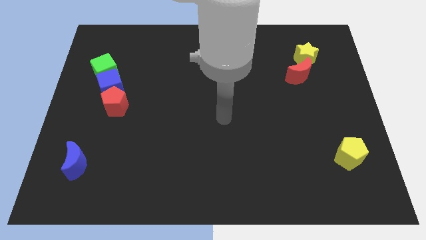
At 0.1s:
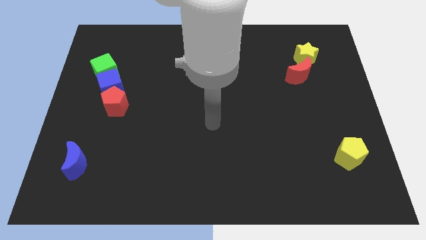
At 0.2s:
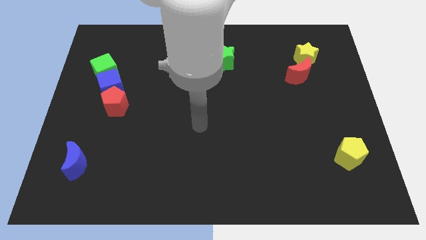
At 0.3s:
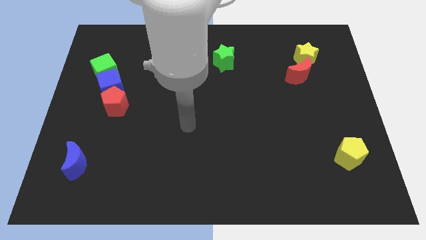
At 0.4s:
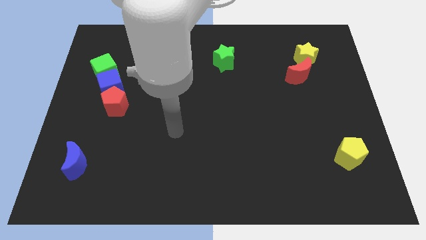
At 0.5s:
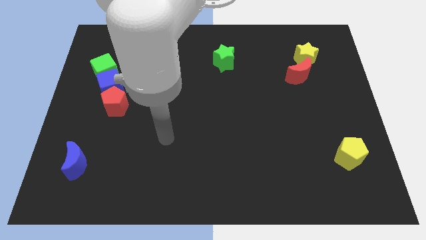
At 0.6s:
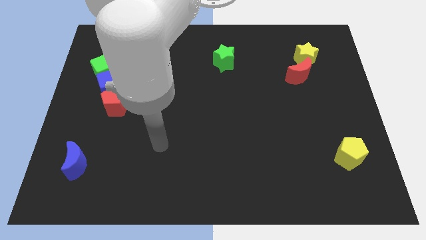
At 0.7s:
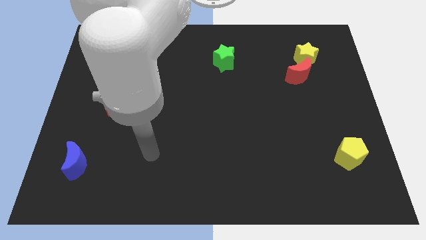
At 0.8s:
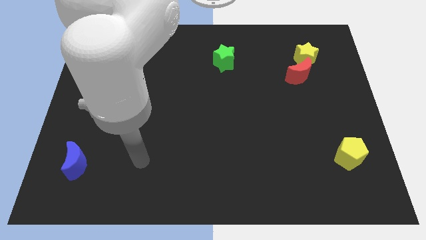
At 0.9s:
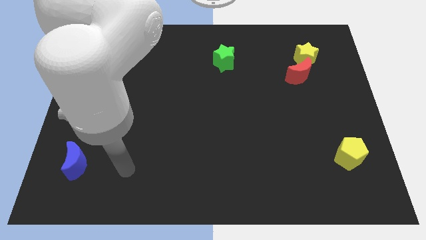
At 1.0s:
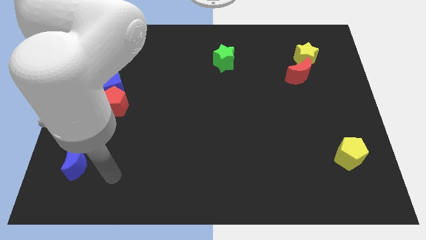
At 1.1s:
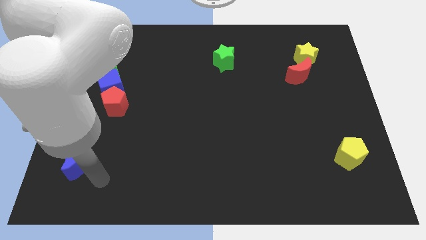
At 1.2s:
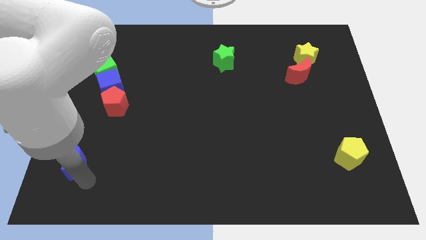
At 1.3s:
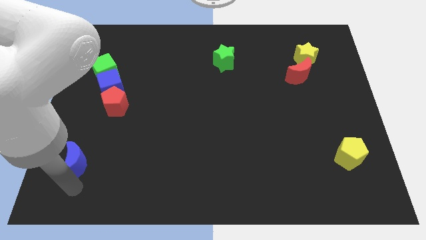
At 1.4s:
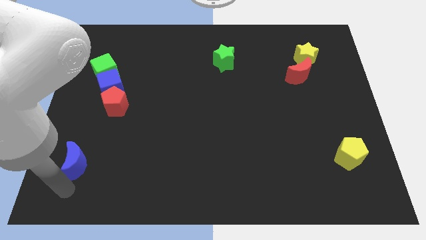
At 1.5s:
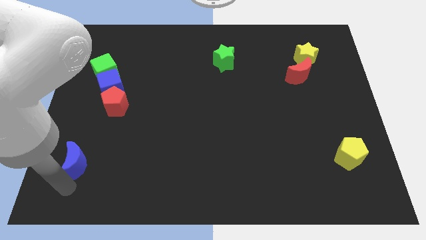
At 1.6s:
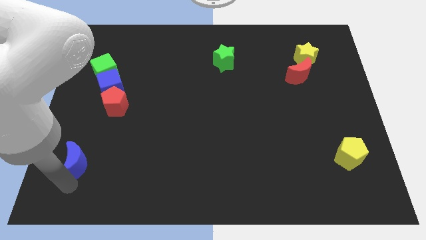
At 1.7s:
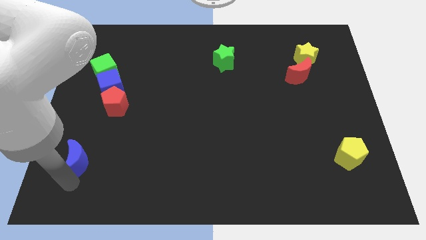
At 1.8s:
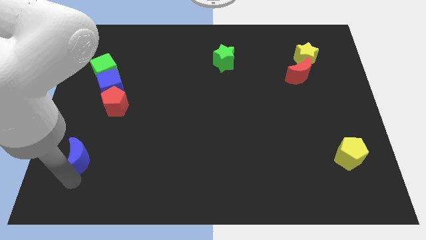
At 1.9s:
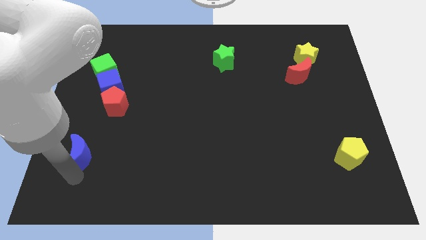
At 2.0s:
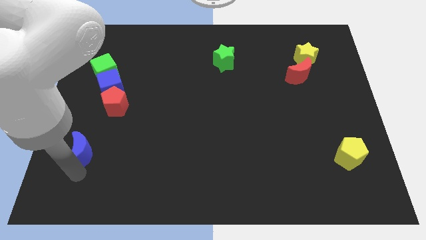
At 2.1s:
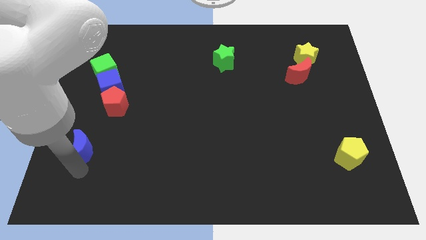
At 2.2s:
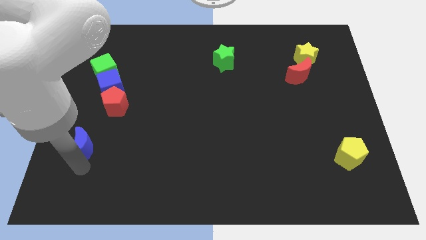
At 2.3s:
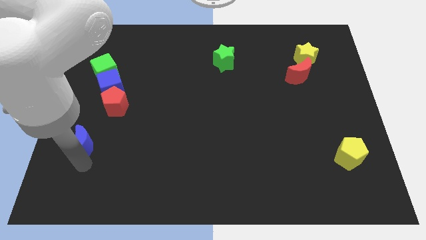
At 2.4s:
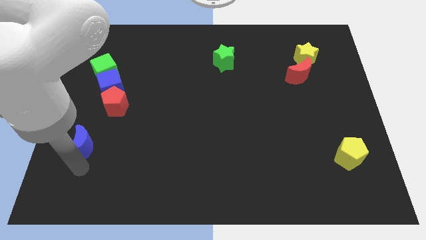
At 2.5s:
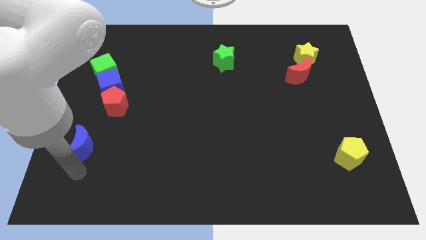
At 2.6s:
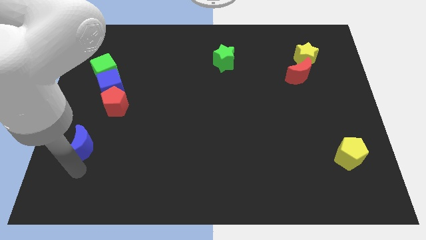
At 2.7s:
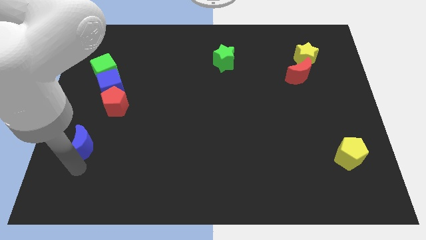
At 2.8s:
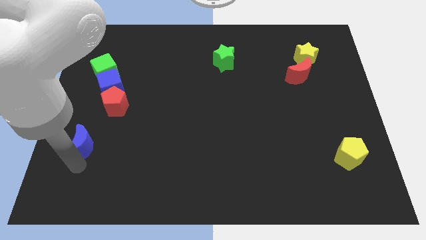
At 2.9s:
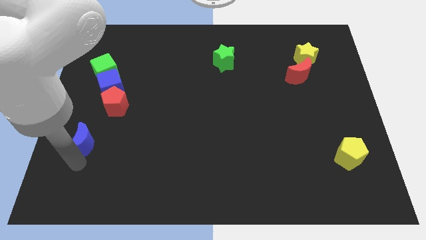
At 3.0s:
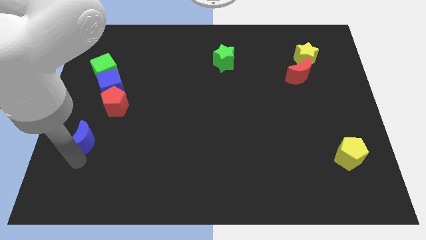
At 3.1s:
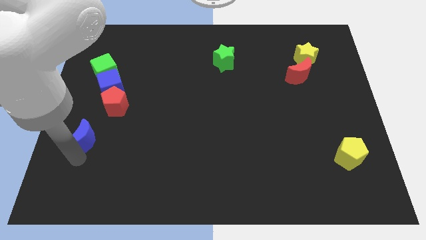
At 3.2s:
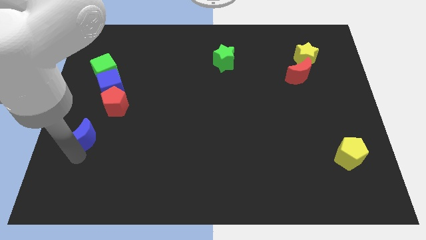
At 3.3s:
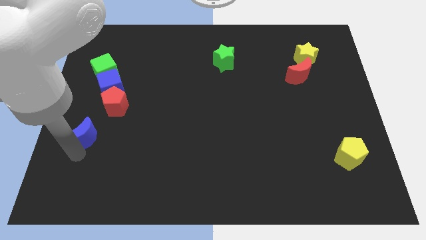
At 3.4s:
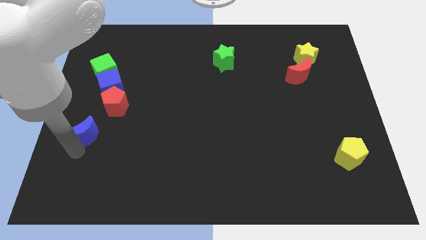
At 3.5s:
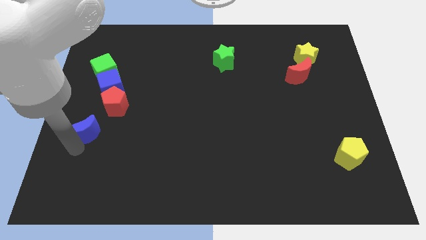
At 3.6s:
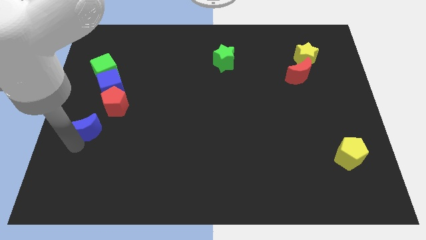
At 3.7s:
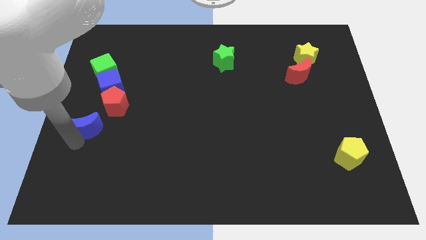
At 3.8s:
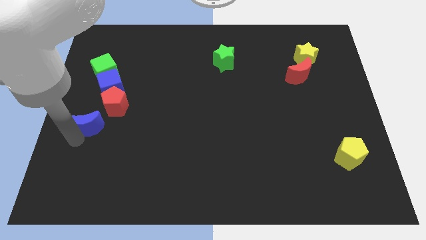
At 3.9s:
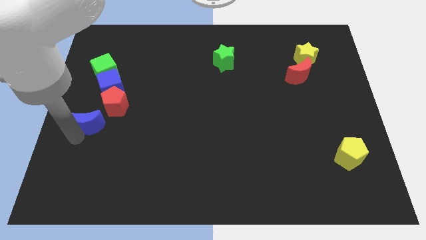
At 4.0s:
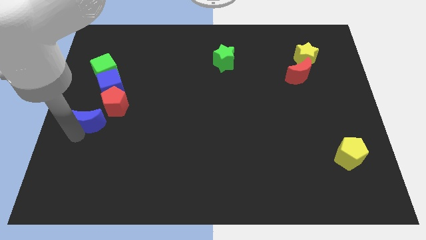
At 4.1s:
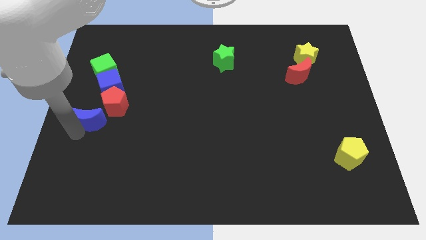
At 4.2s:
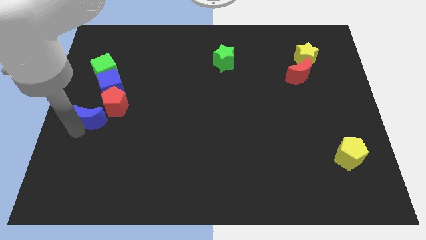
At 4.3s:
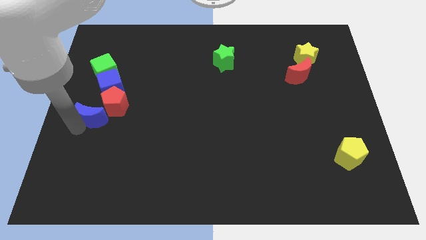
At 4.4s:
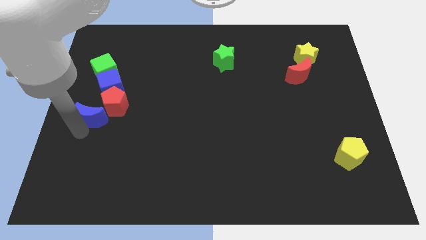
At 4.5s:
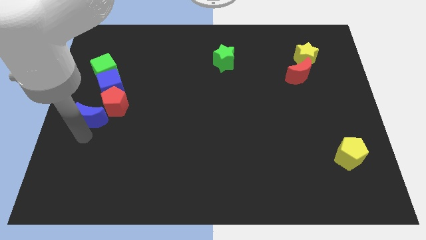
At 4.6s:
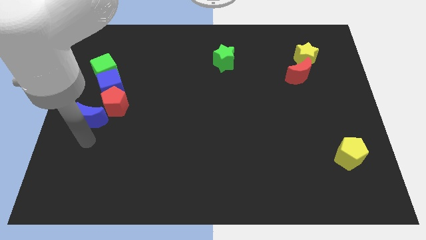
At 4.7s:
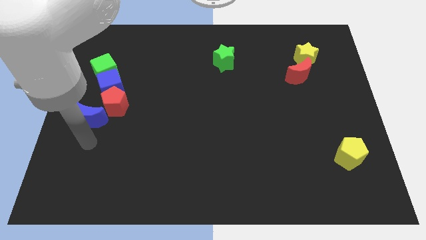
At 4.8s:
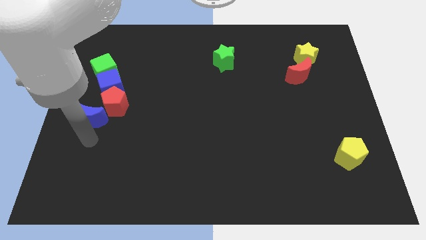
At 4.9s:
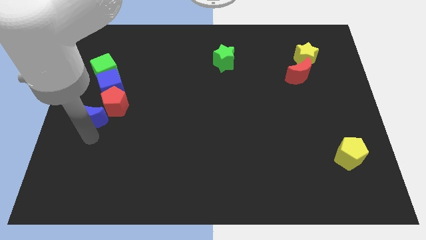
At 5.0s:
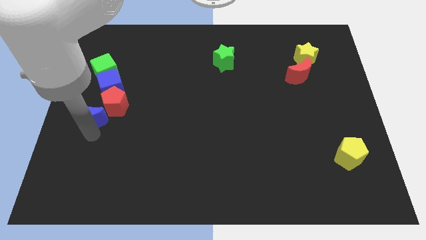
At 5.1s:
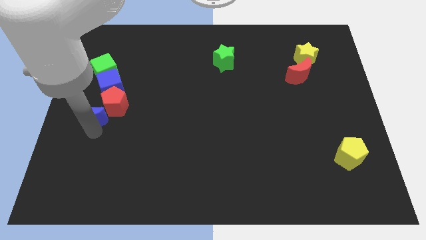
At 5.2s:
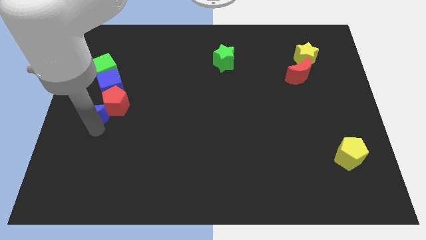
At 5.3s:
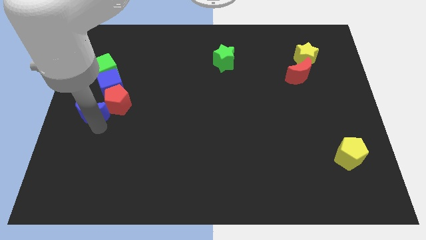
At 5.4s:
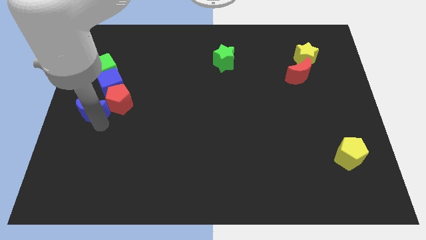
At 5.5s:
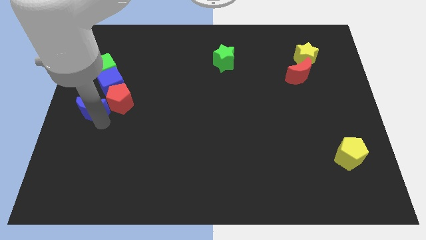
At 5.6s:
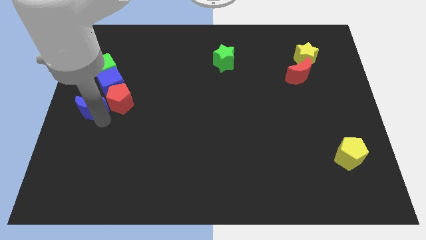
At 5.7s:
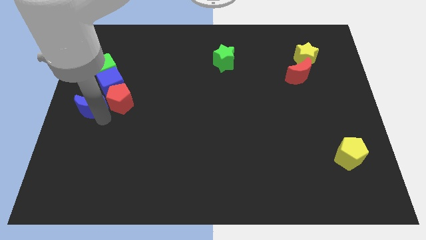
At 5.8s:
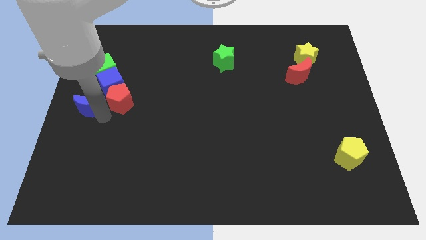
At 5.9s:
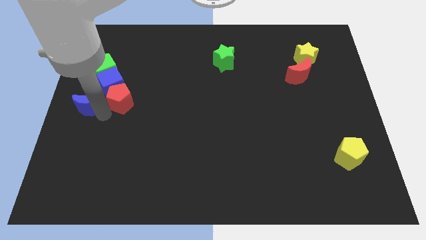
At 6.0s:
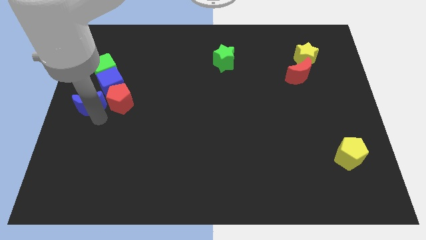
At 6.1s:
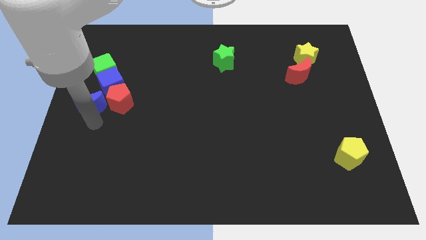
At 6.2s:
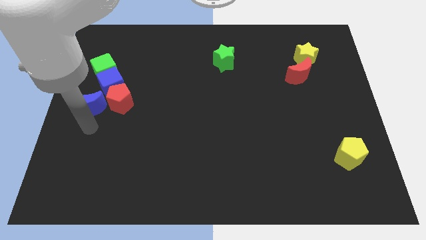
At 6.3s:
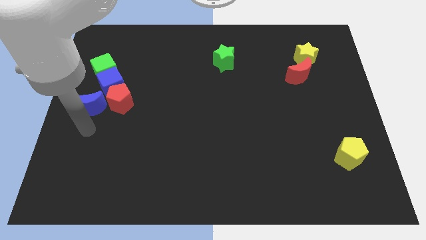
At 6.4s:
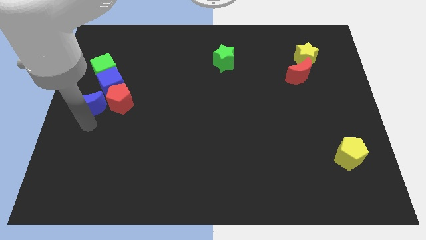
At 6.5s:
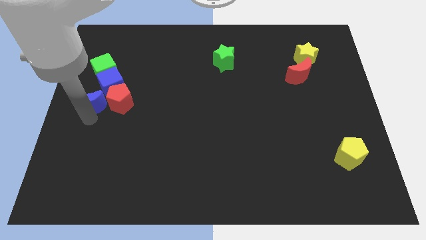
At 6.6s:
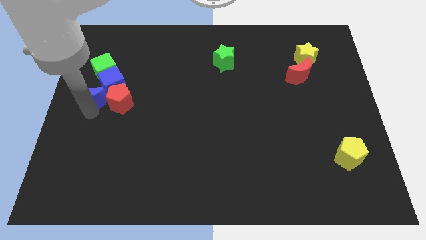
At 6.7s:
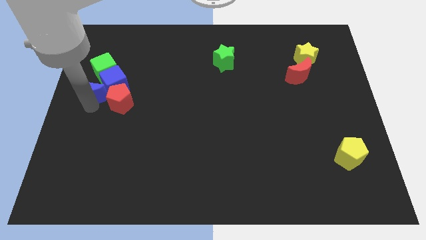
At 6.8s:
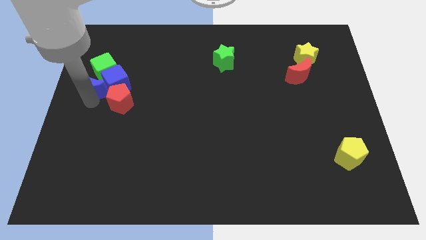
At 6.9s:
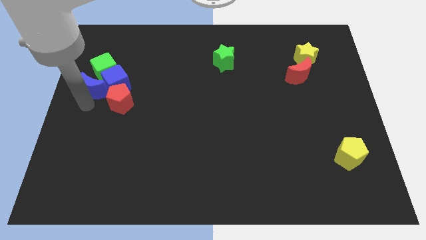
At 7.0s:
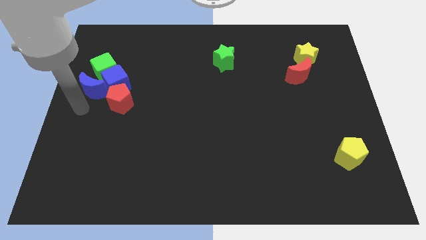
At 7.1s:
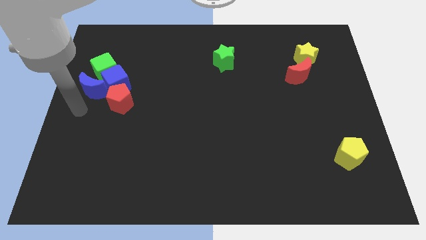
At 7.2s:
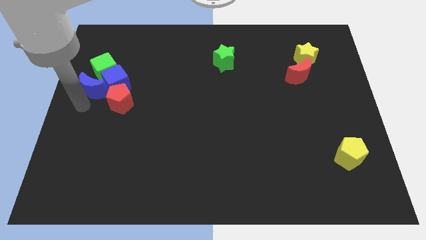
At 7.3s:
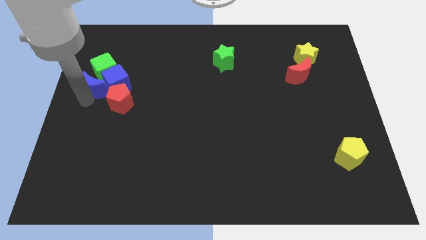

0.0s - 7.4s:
put the blue moon next to the green cube

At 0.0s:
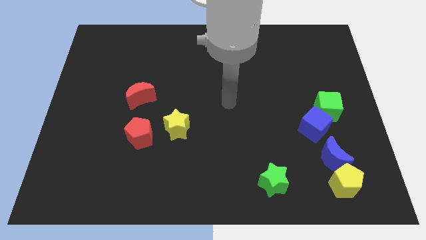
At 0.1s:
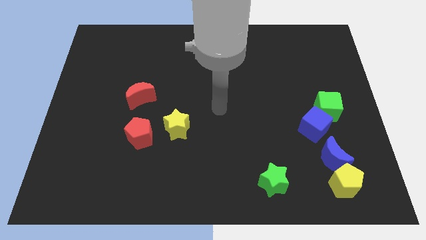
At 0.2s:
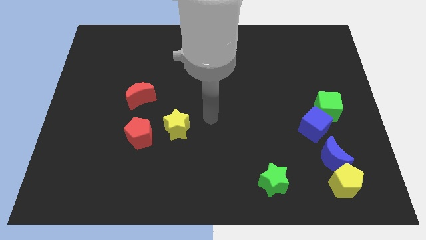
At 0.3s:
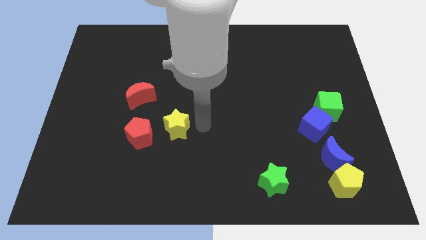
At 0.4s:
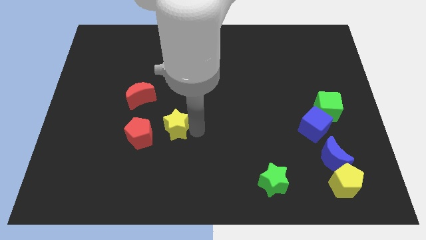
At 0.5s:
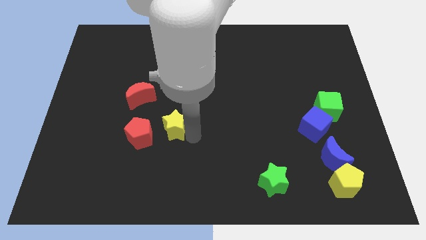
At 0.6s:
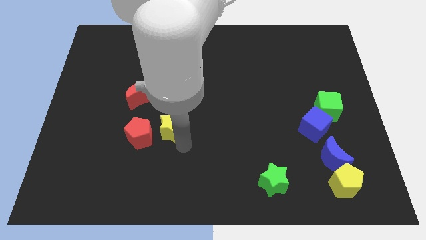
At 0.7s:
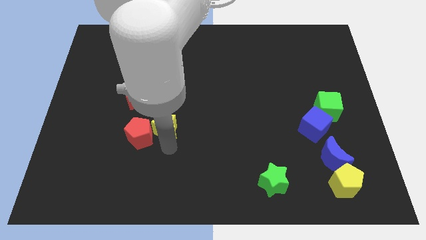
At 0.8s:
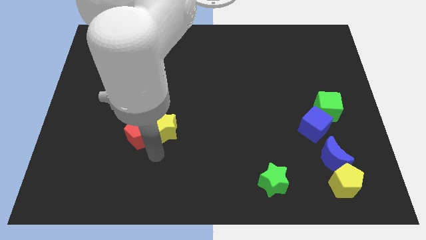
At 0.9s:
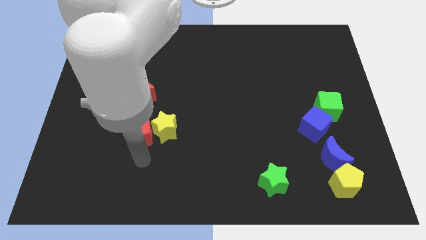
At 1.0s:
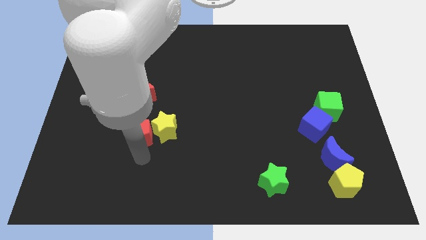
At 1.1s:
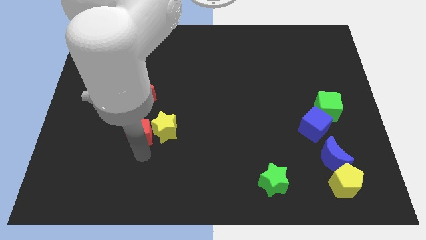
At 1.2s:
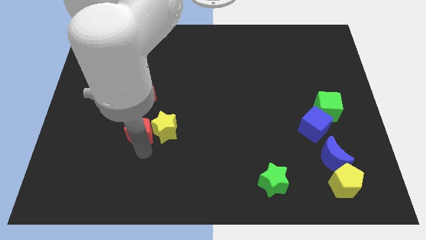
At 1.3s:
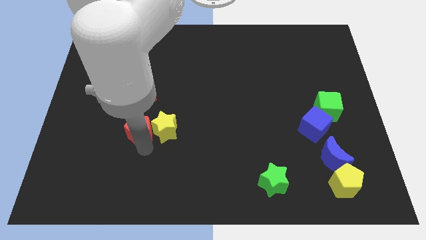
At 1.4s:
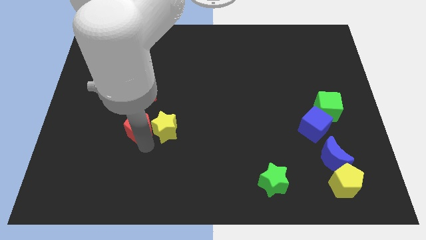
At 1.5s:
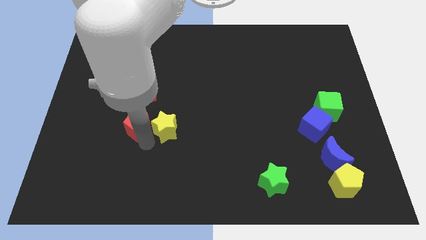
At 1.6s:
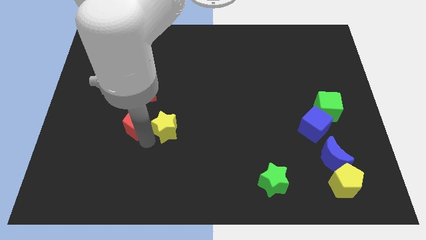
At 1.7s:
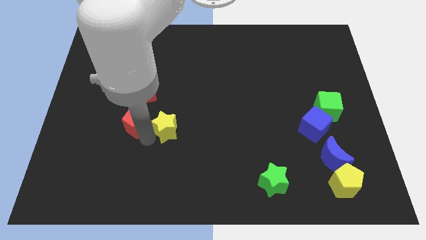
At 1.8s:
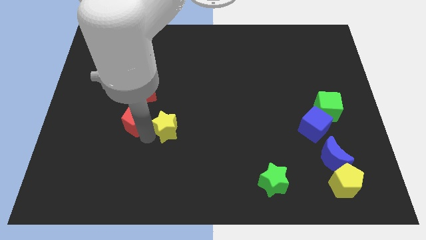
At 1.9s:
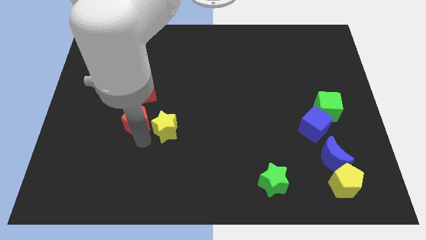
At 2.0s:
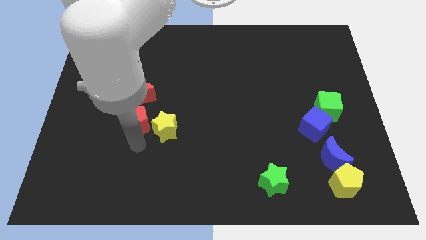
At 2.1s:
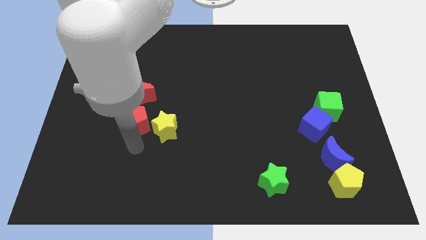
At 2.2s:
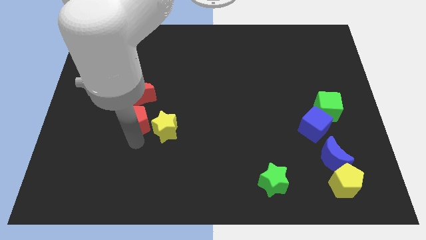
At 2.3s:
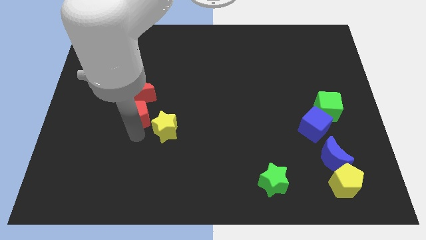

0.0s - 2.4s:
move the red pentagon close to the red moon
